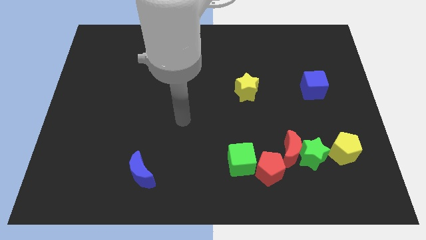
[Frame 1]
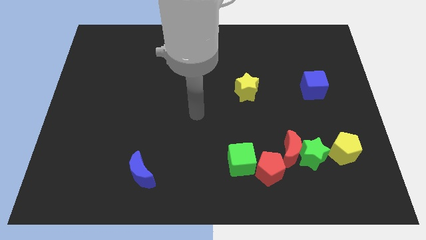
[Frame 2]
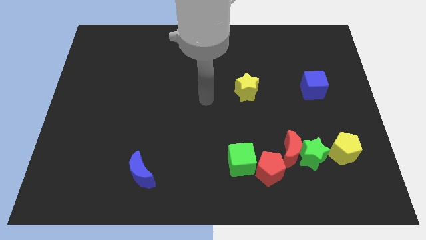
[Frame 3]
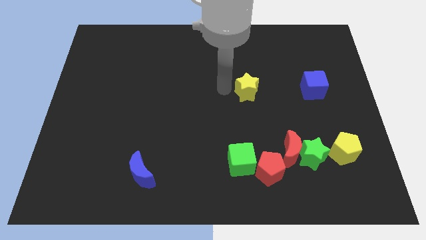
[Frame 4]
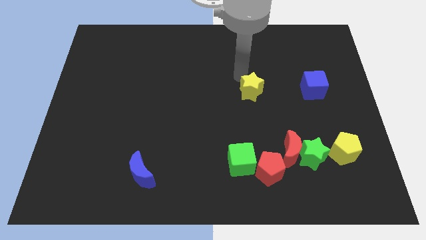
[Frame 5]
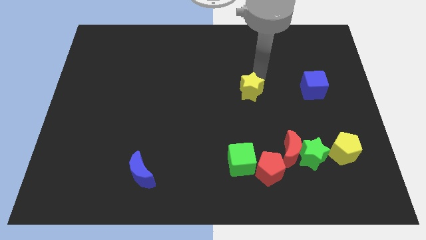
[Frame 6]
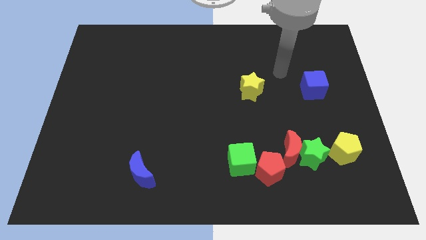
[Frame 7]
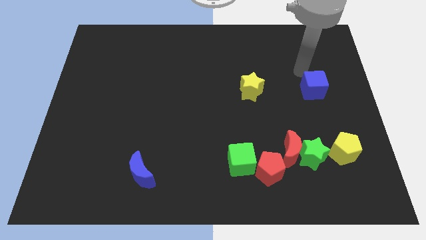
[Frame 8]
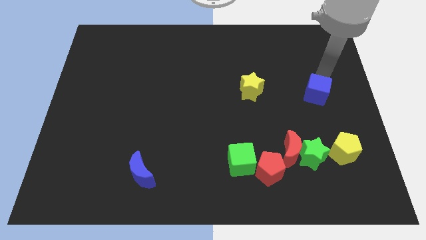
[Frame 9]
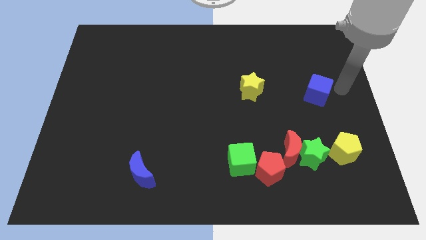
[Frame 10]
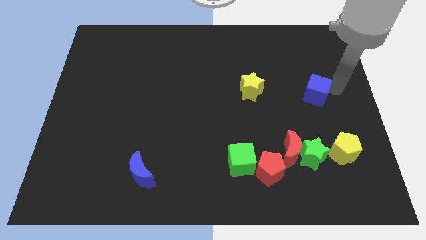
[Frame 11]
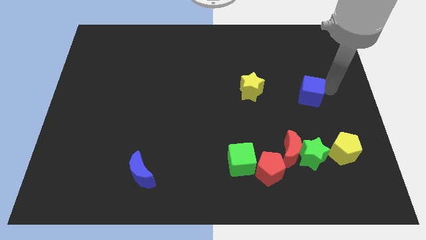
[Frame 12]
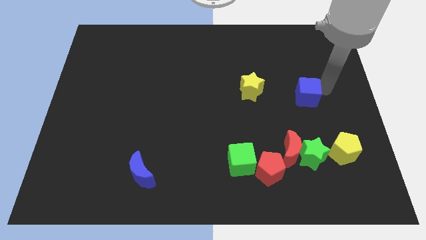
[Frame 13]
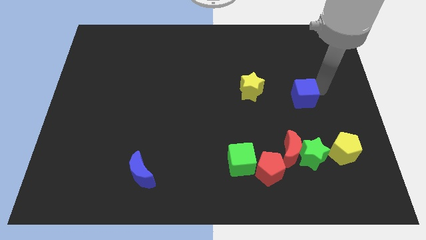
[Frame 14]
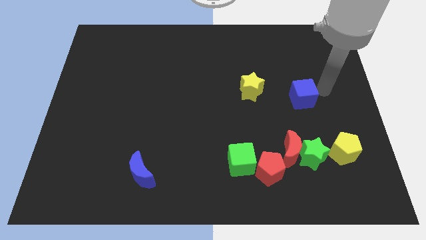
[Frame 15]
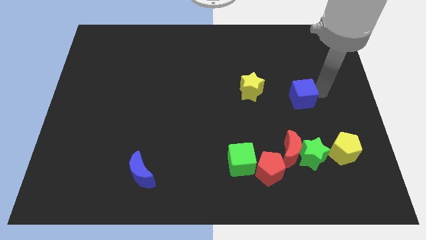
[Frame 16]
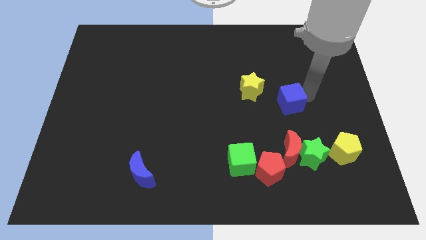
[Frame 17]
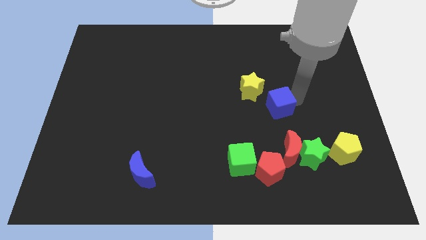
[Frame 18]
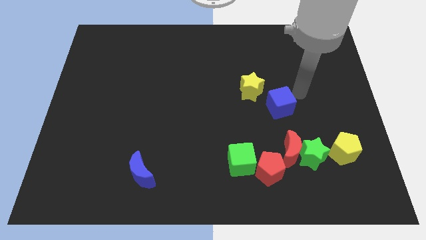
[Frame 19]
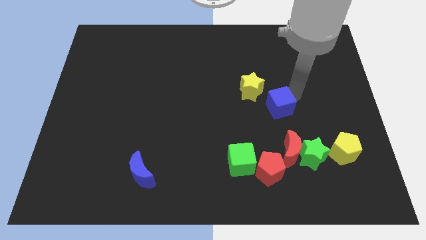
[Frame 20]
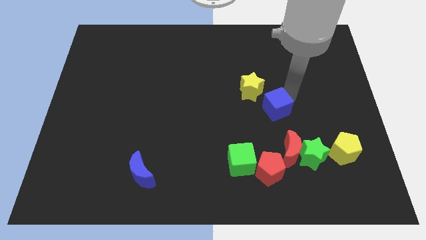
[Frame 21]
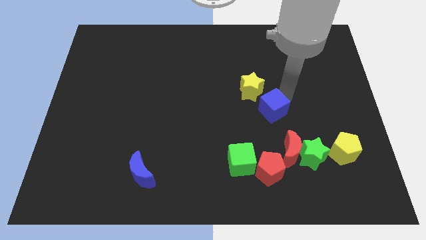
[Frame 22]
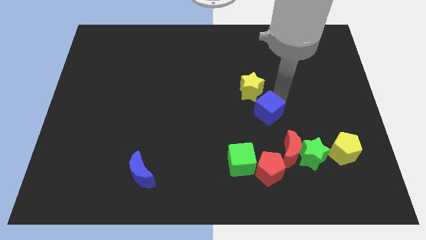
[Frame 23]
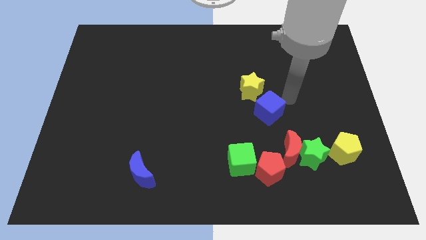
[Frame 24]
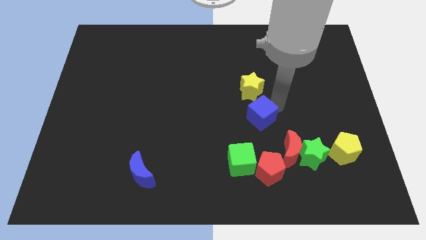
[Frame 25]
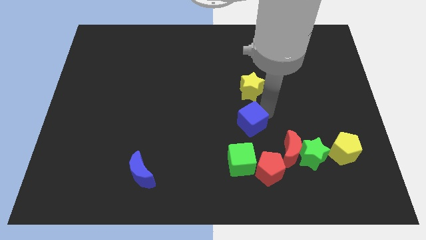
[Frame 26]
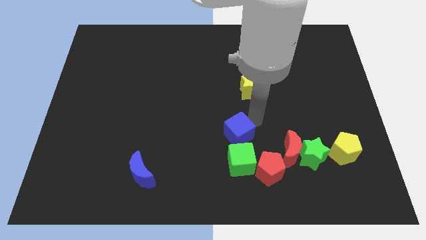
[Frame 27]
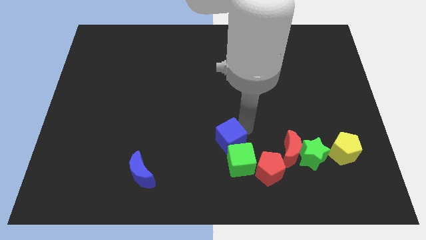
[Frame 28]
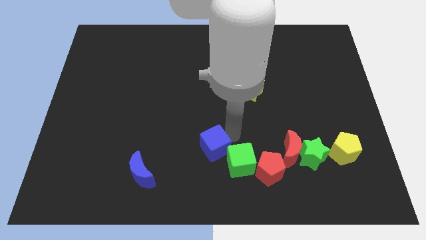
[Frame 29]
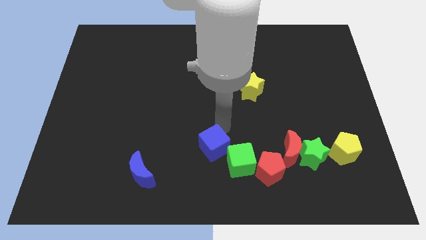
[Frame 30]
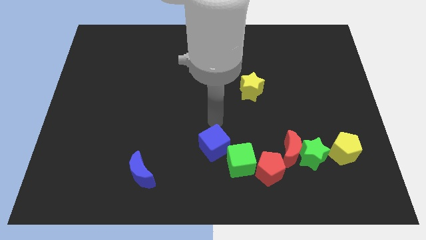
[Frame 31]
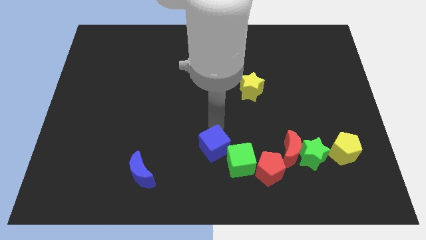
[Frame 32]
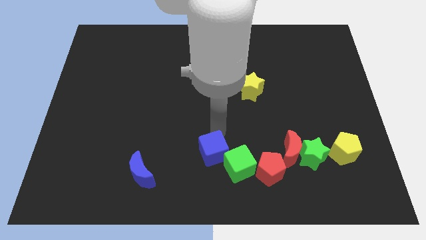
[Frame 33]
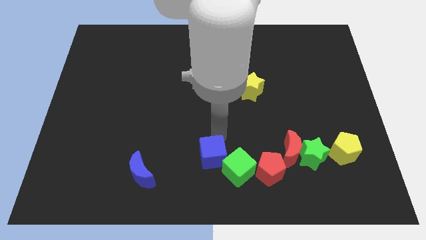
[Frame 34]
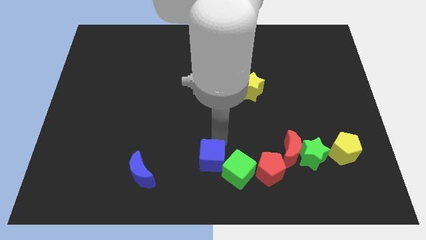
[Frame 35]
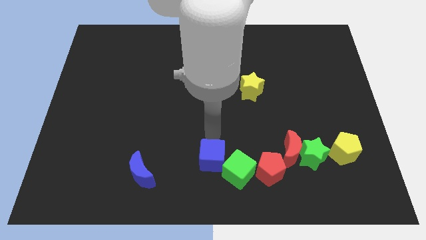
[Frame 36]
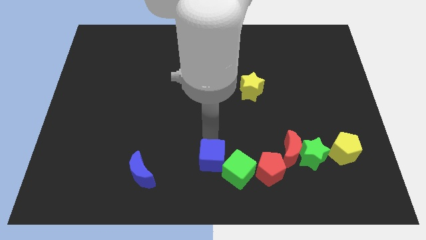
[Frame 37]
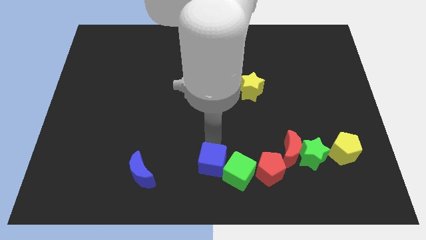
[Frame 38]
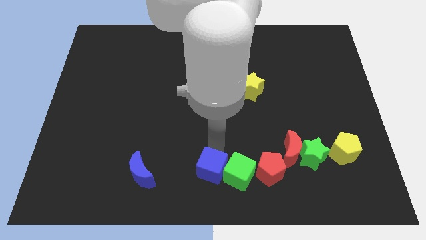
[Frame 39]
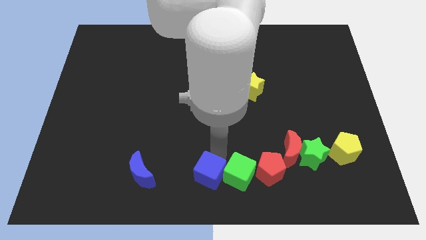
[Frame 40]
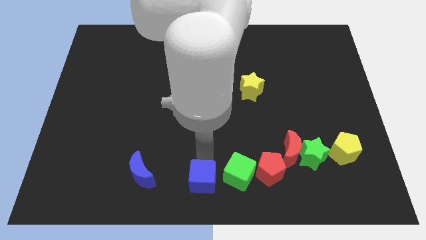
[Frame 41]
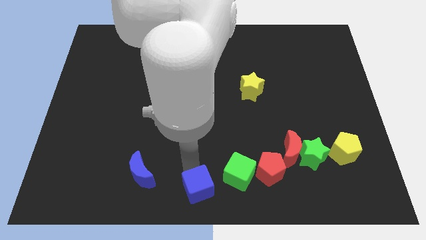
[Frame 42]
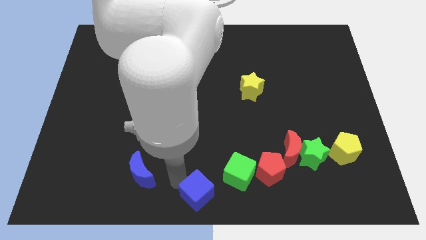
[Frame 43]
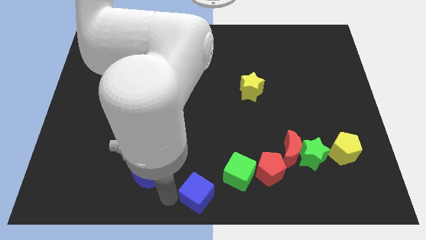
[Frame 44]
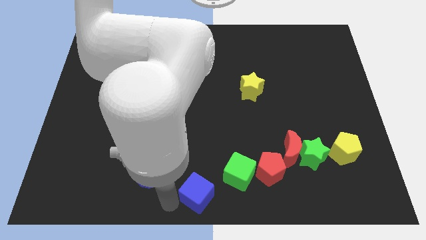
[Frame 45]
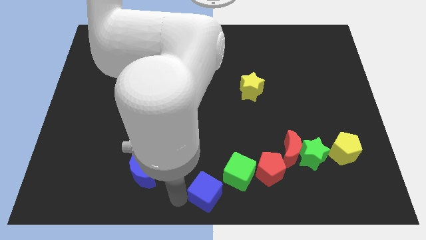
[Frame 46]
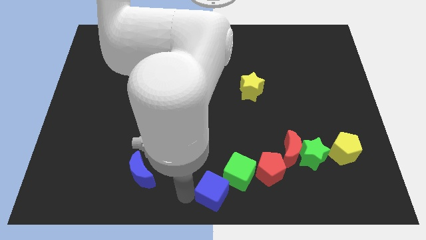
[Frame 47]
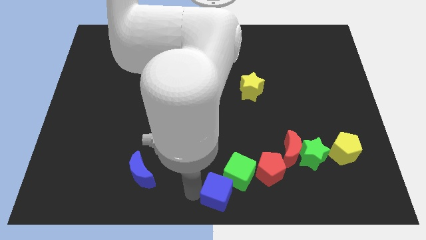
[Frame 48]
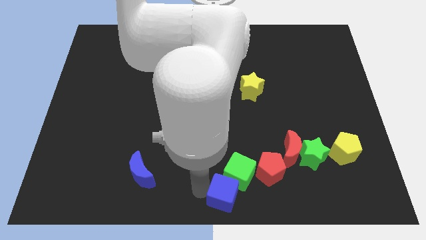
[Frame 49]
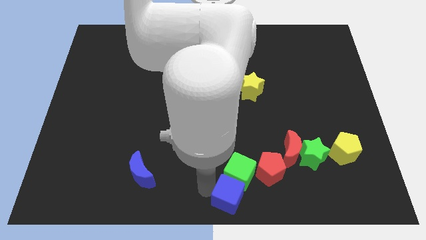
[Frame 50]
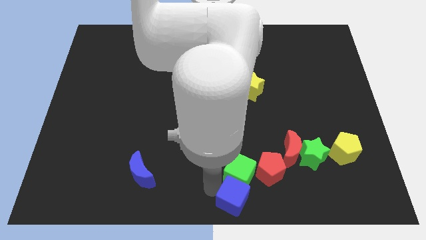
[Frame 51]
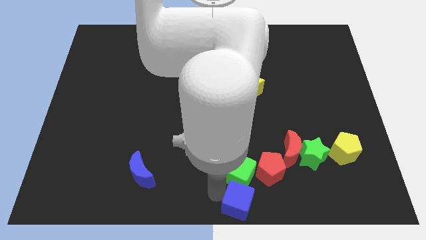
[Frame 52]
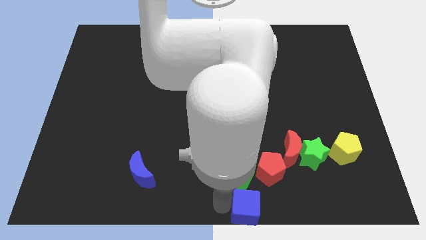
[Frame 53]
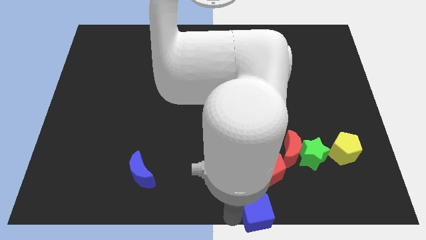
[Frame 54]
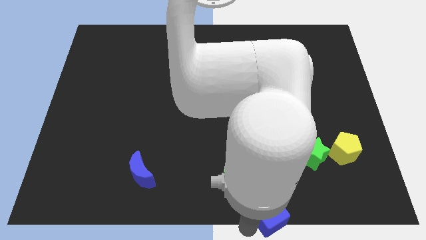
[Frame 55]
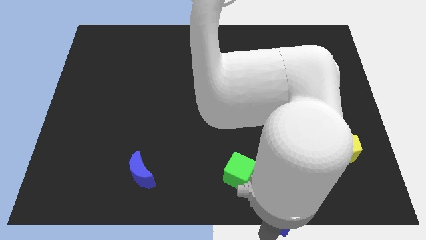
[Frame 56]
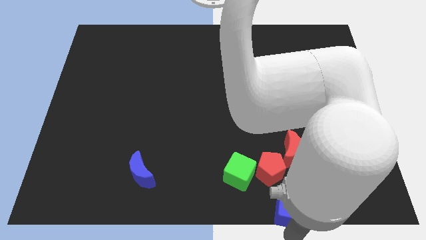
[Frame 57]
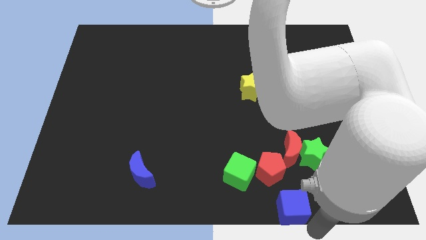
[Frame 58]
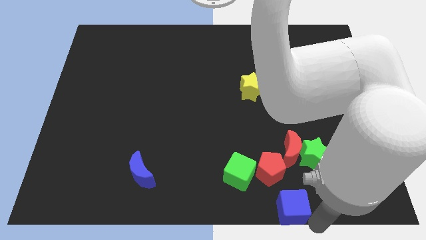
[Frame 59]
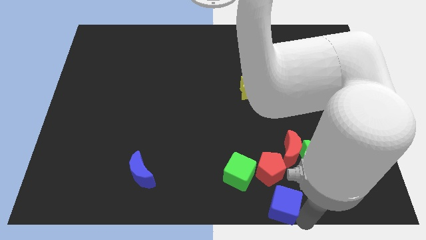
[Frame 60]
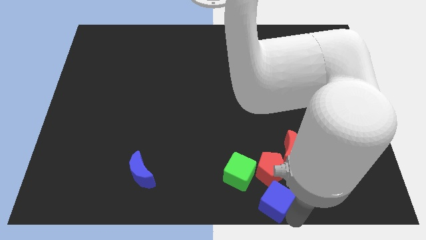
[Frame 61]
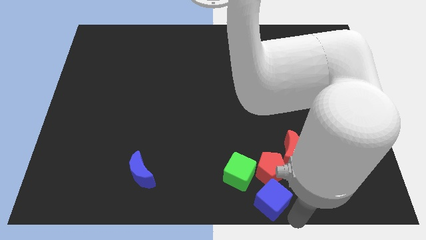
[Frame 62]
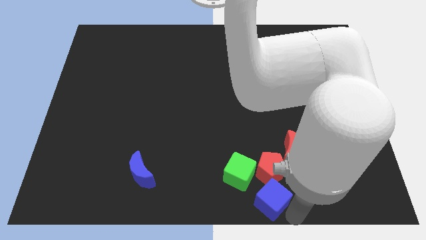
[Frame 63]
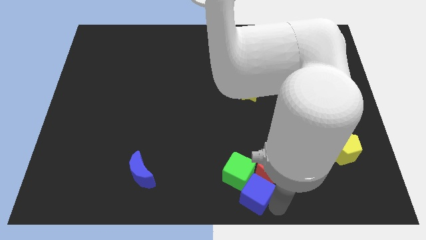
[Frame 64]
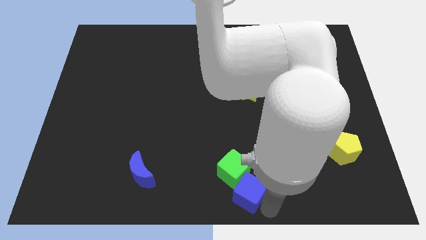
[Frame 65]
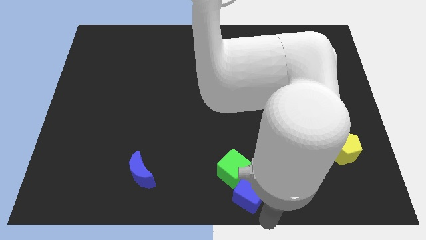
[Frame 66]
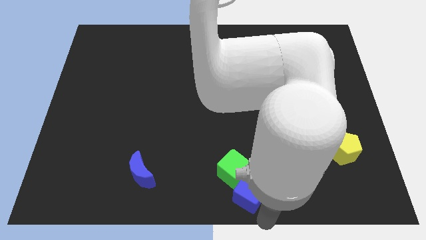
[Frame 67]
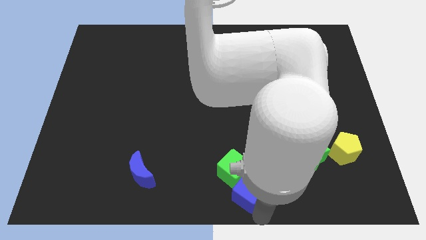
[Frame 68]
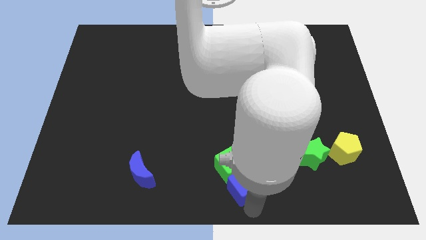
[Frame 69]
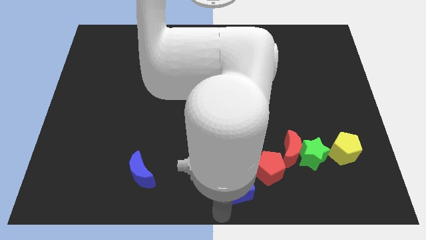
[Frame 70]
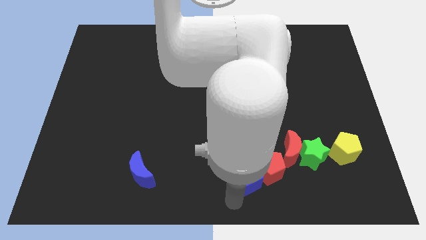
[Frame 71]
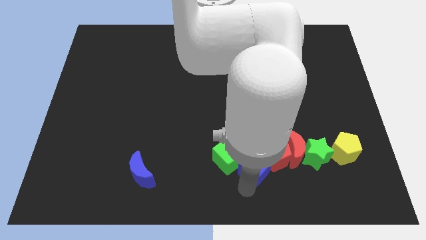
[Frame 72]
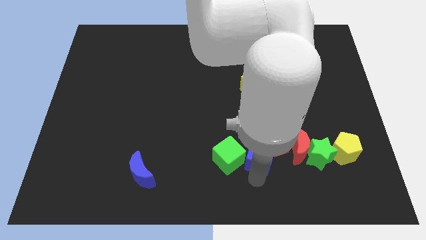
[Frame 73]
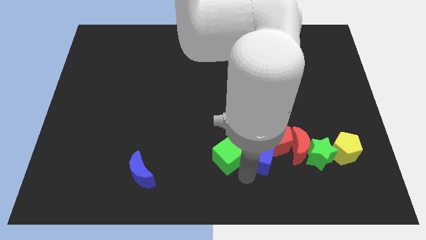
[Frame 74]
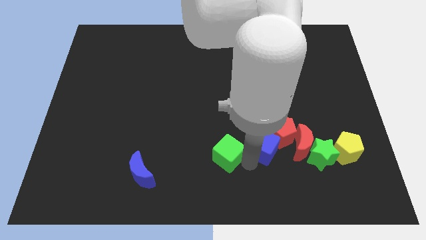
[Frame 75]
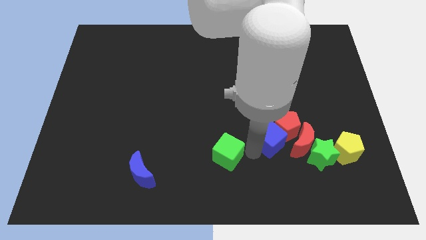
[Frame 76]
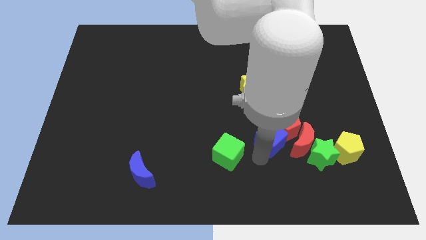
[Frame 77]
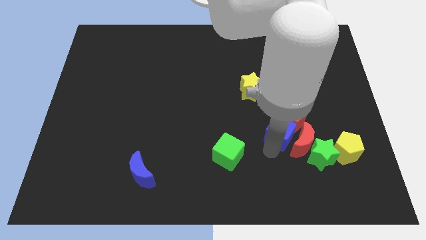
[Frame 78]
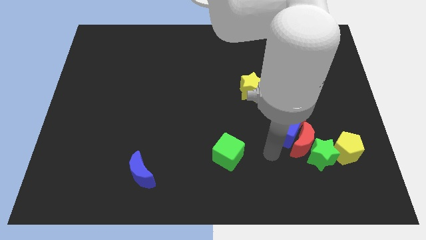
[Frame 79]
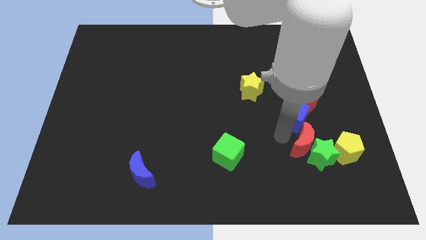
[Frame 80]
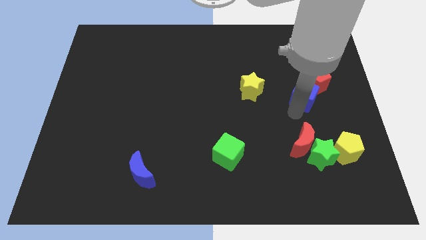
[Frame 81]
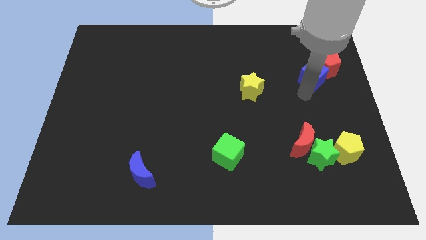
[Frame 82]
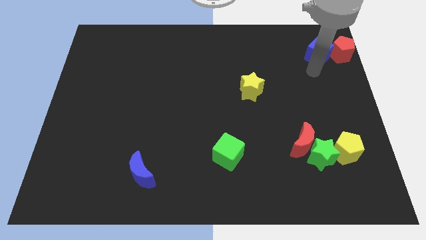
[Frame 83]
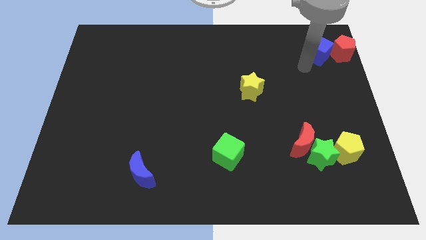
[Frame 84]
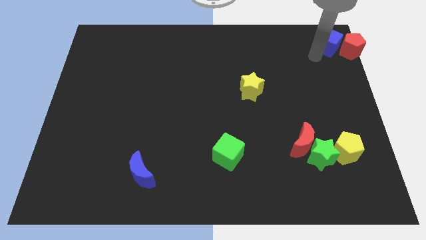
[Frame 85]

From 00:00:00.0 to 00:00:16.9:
push the blue cube to the top right of the board
